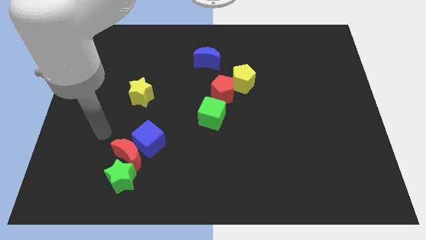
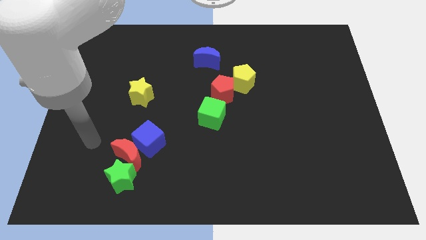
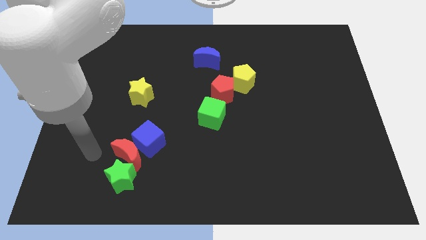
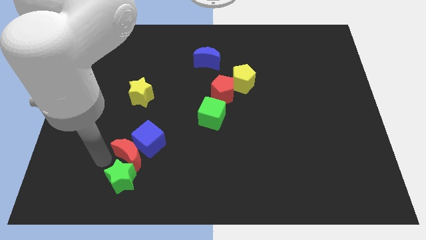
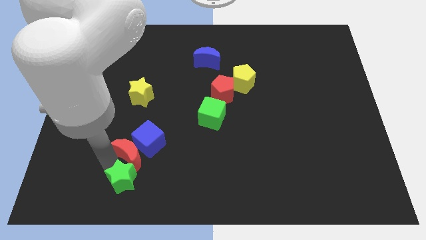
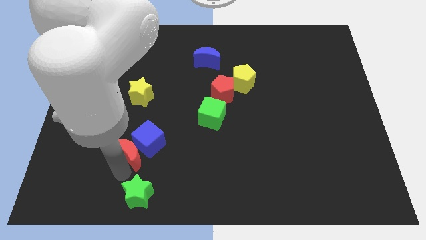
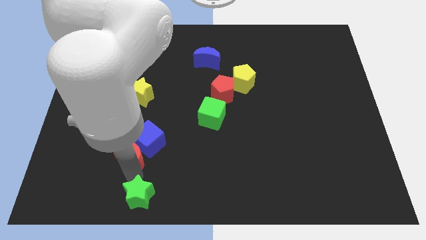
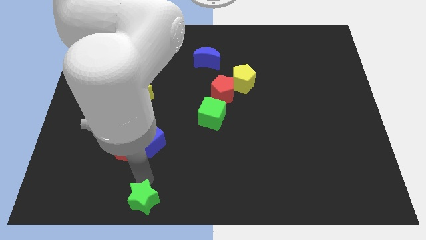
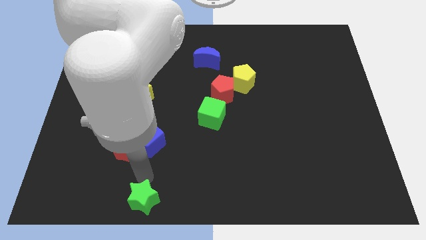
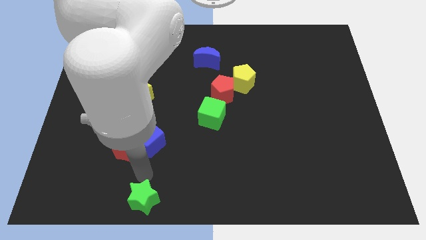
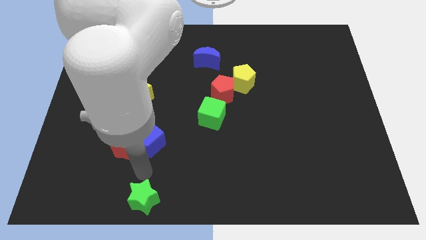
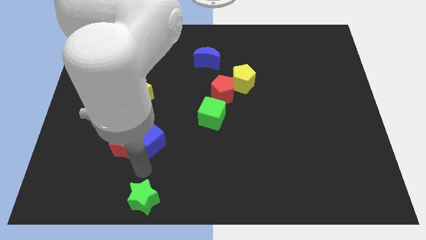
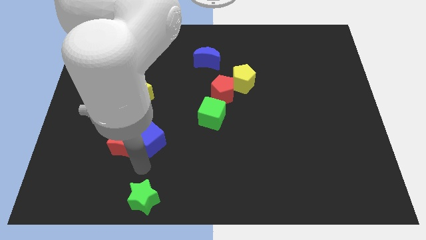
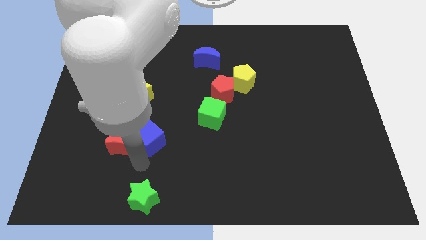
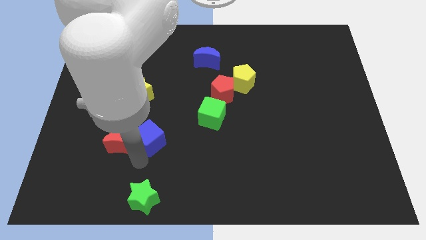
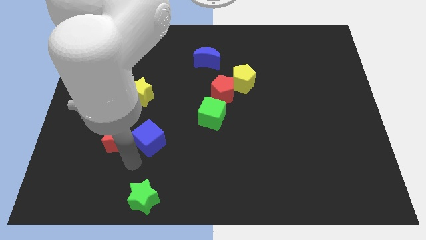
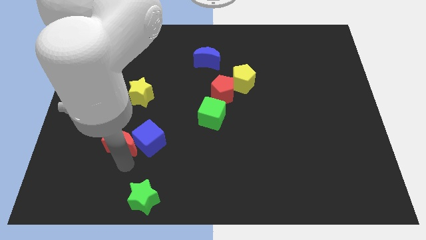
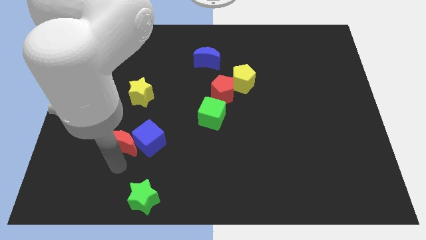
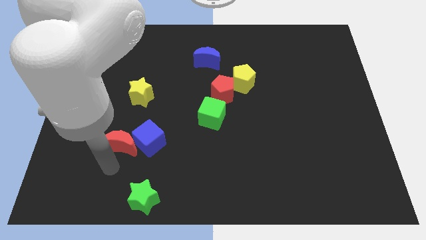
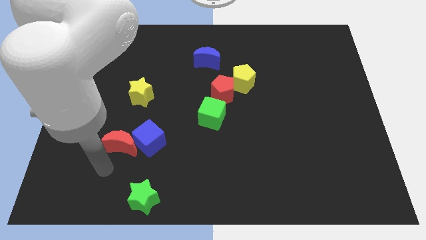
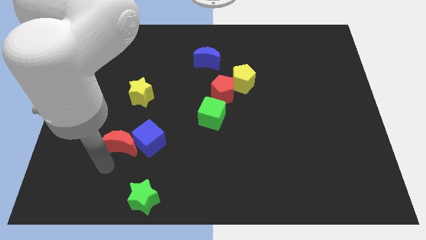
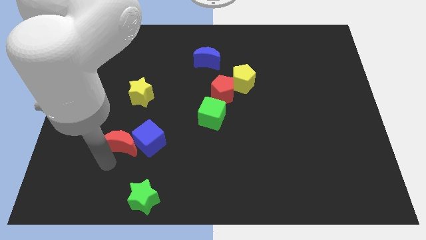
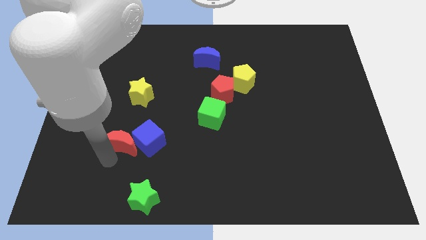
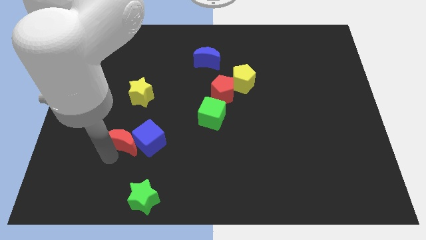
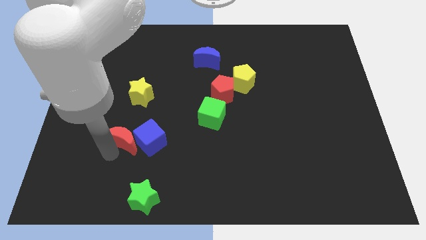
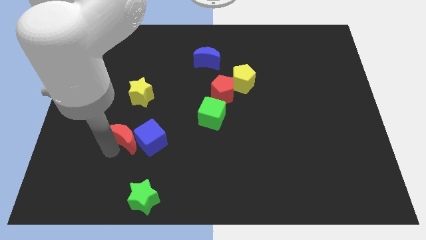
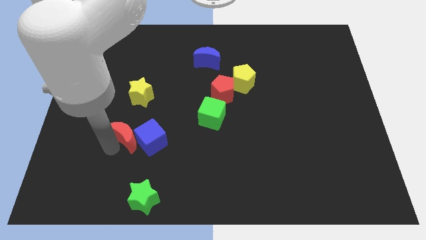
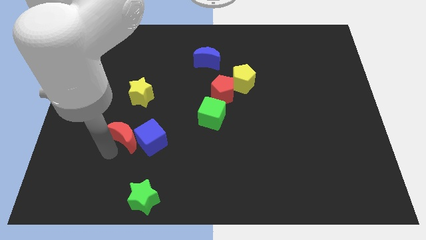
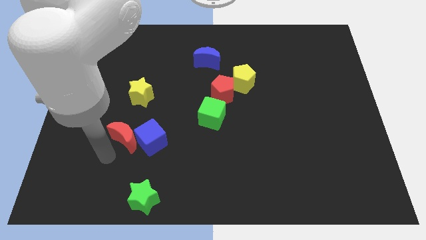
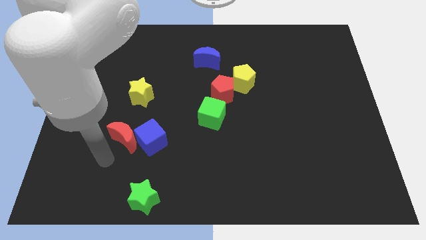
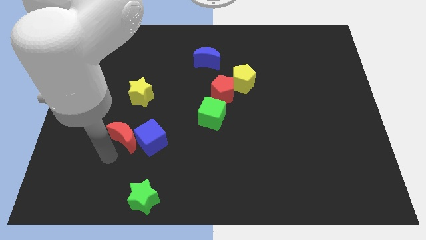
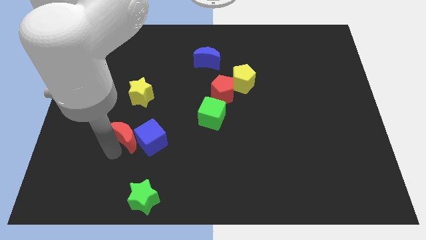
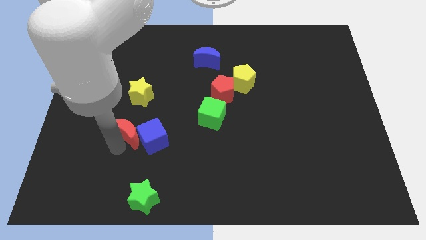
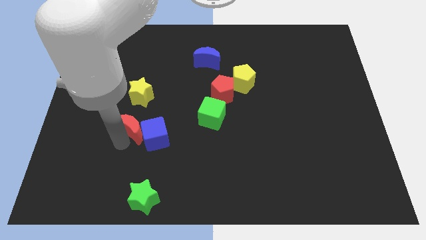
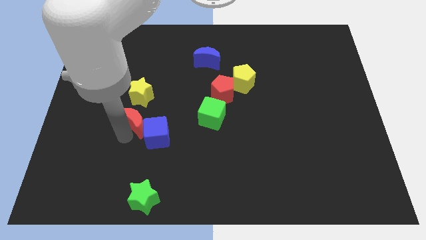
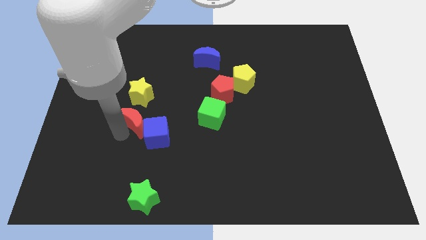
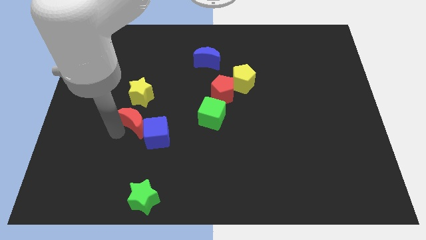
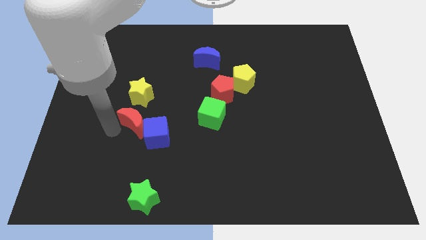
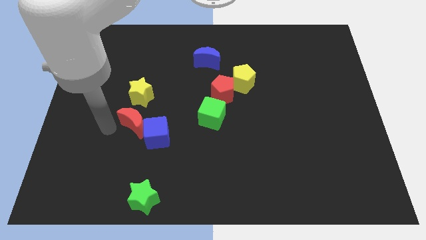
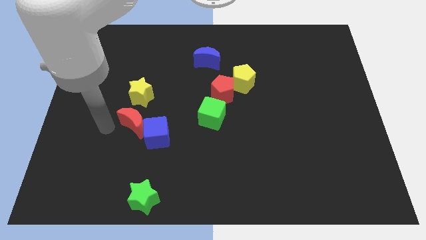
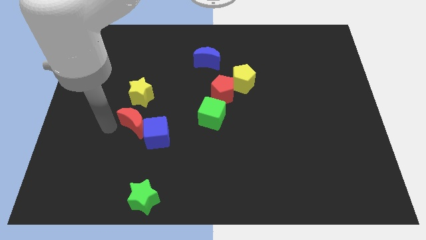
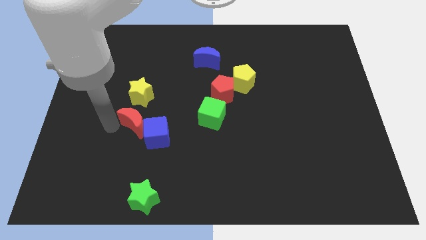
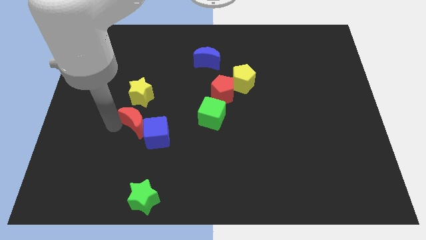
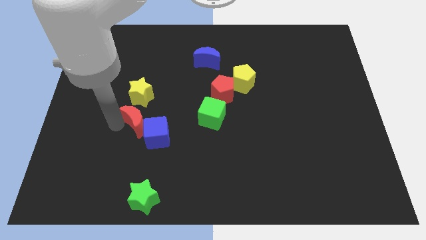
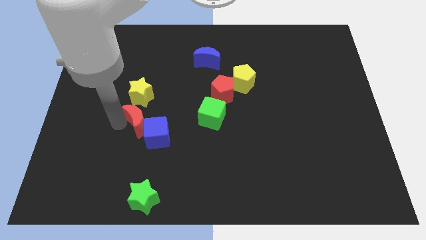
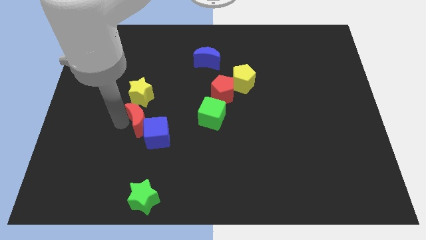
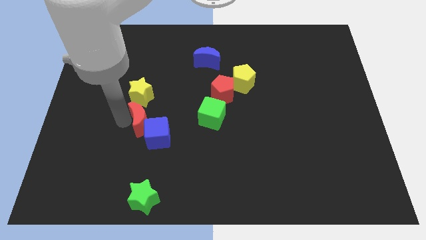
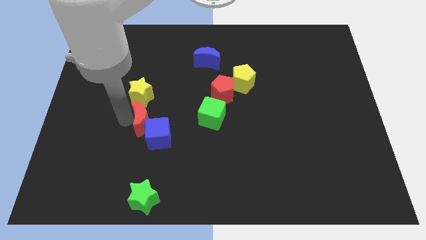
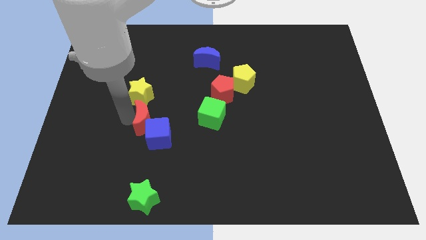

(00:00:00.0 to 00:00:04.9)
slide the red moon a little bit upwards and right diagonally

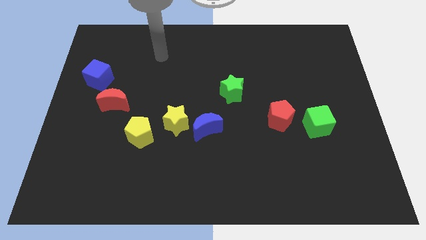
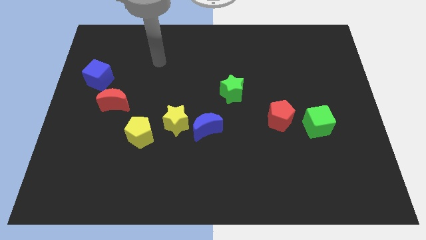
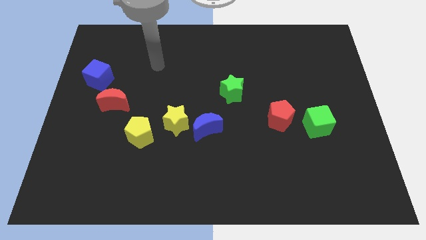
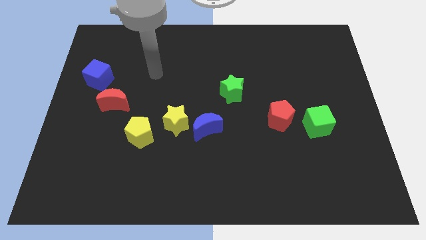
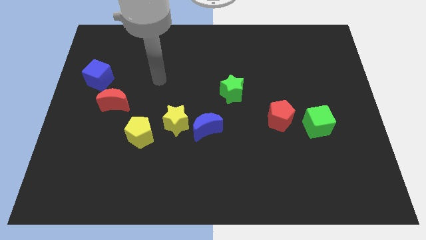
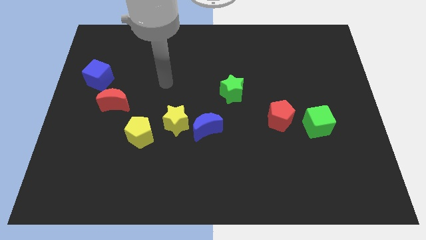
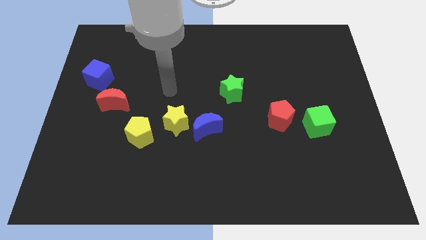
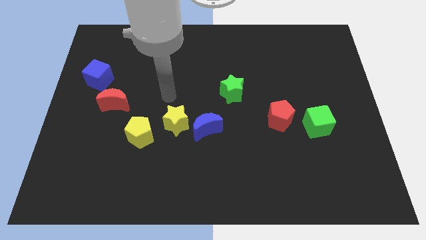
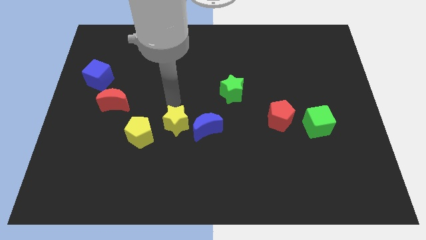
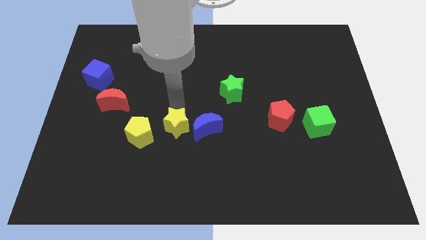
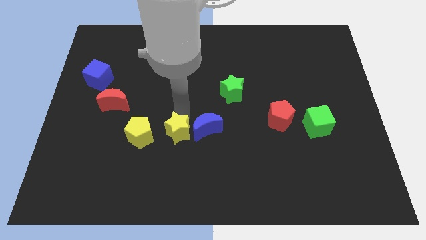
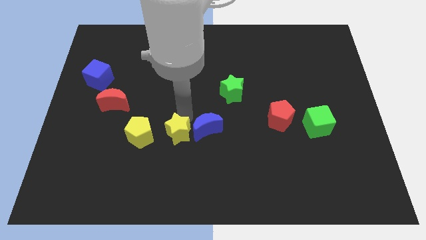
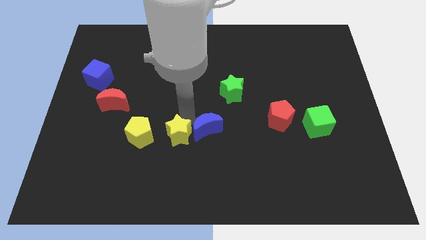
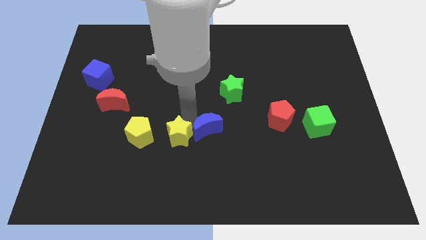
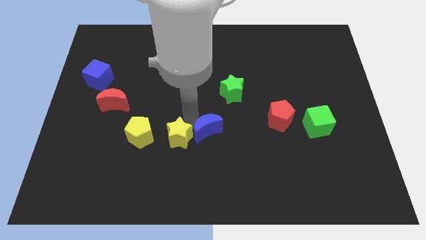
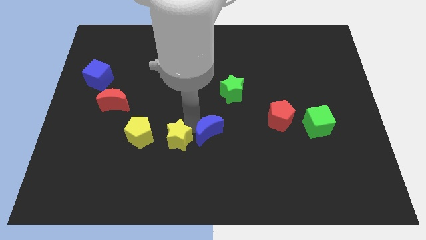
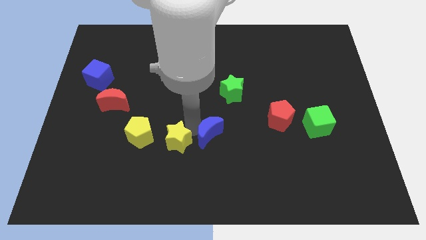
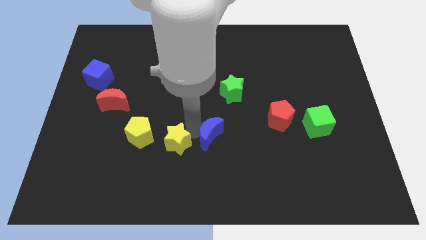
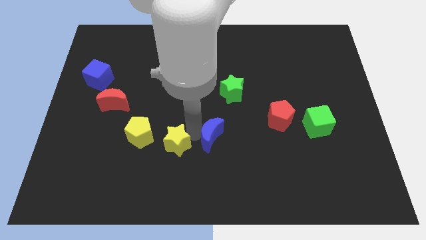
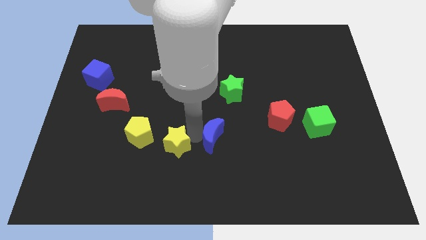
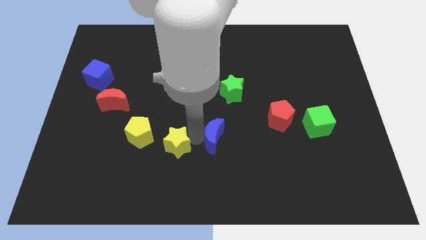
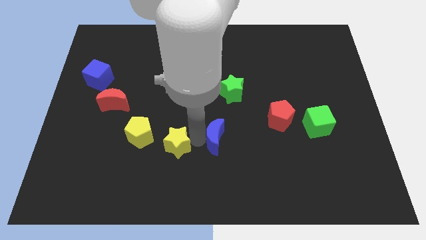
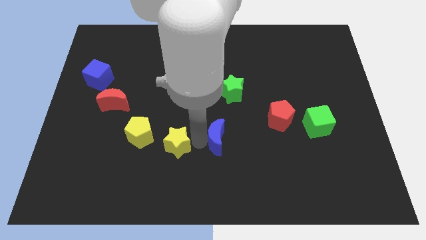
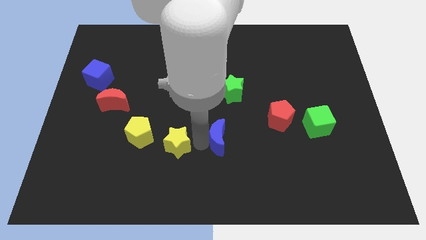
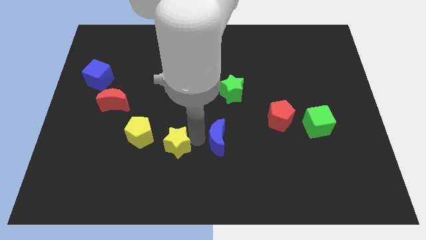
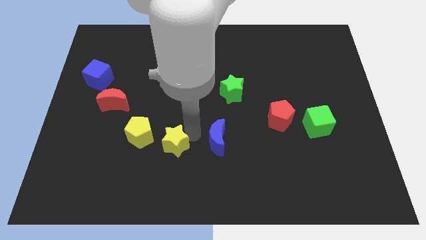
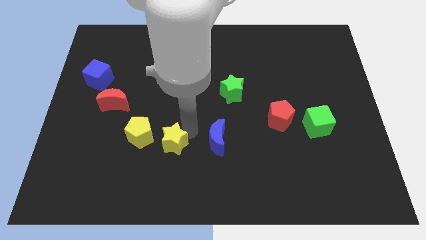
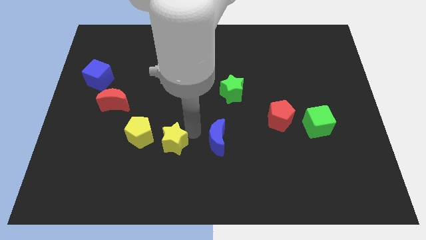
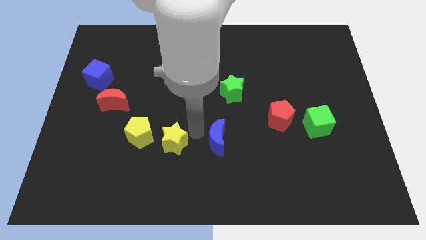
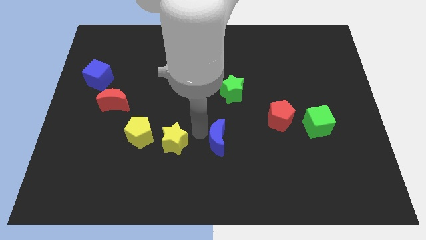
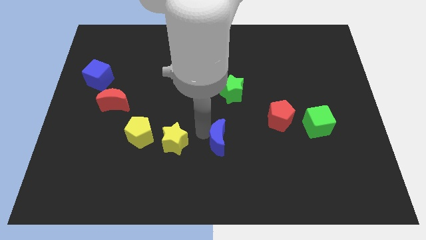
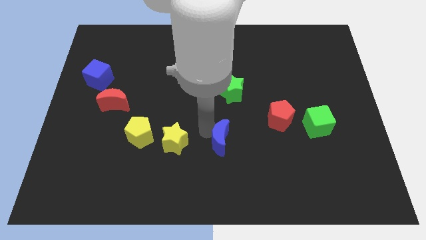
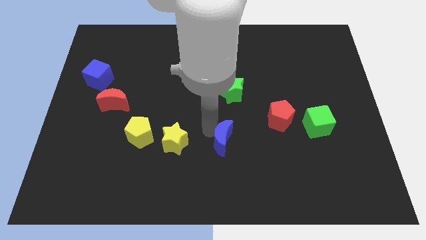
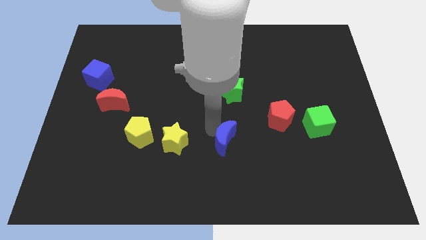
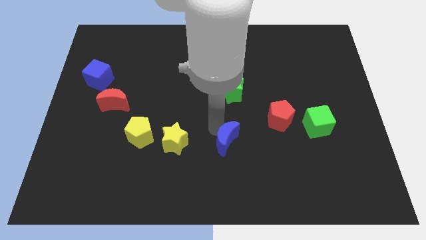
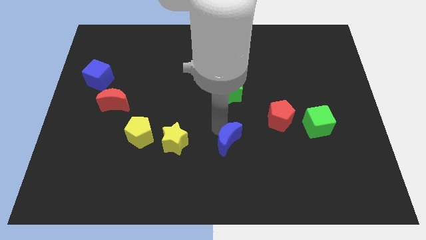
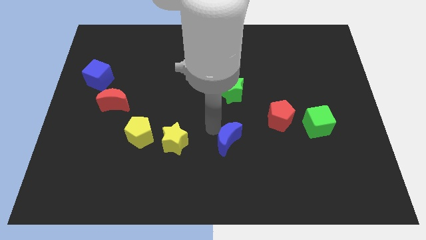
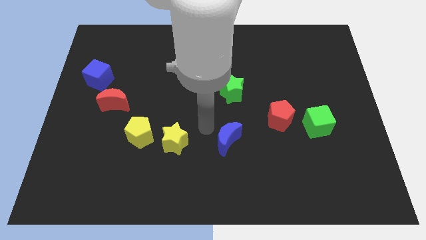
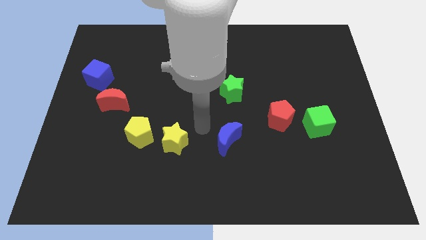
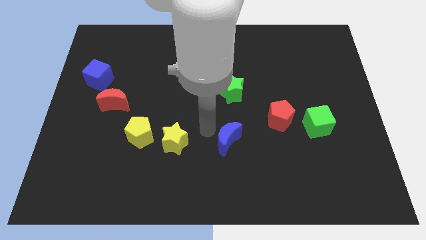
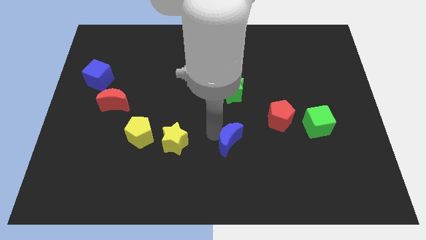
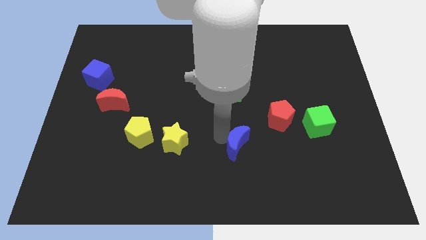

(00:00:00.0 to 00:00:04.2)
push the blue moon a little diagonally down and to the right
